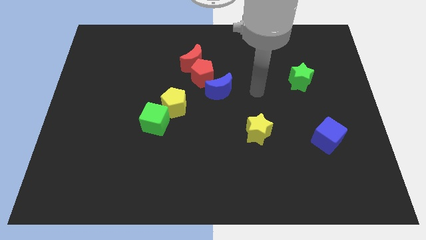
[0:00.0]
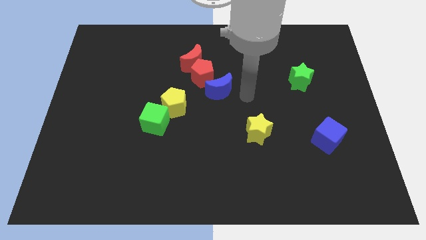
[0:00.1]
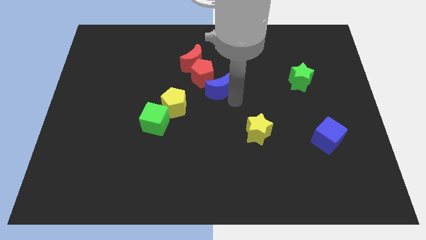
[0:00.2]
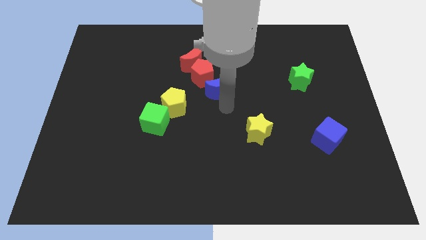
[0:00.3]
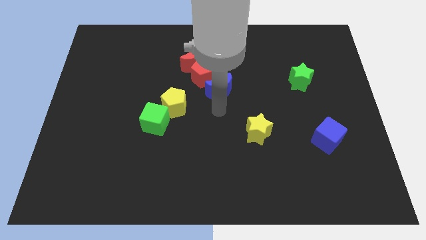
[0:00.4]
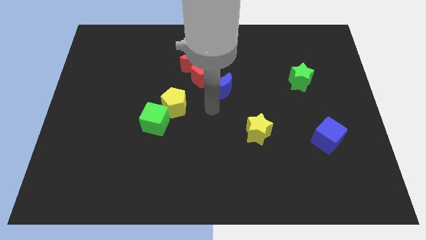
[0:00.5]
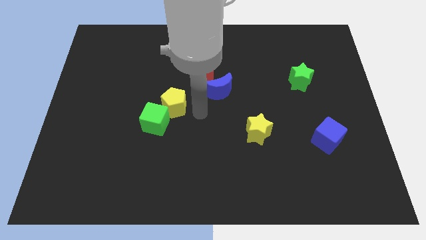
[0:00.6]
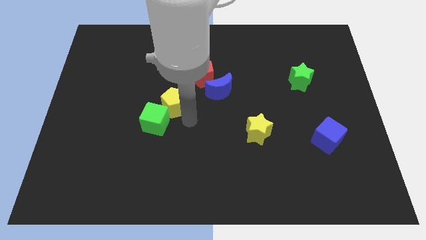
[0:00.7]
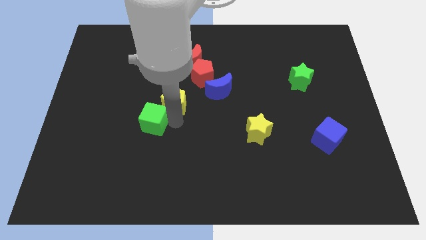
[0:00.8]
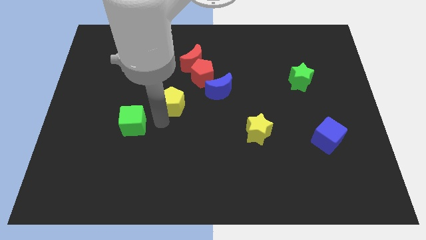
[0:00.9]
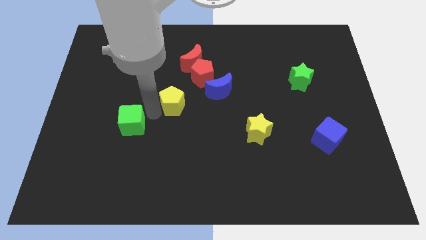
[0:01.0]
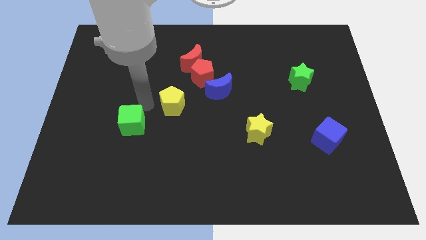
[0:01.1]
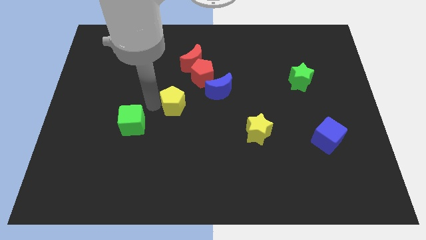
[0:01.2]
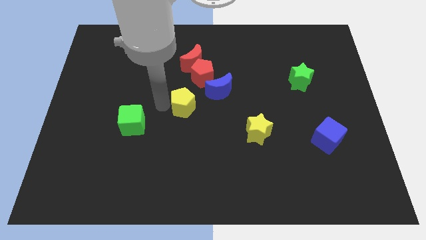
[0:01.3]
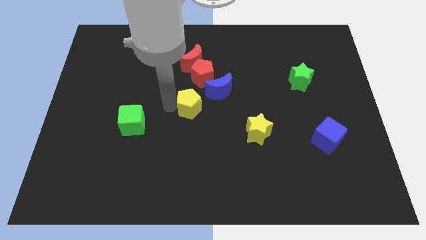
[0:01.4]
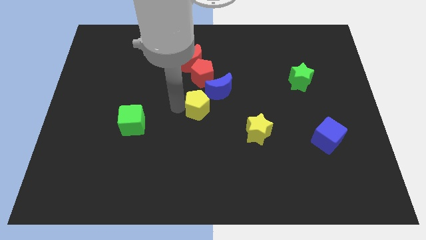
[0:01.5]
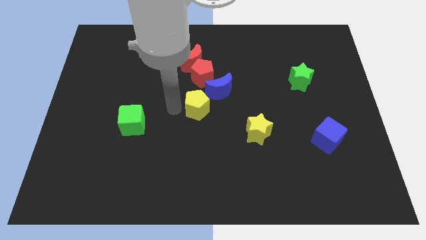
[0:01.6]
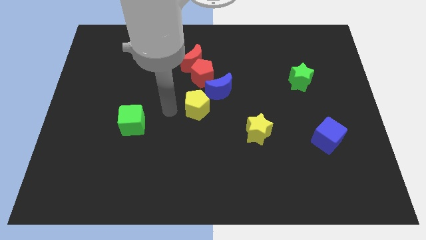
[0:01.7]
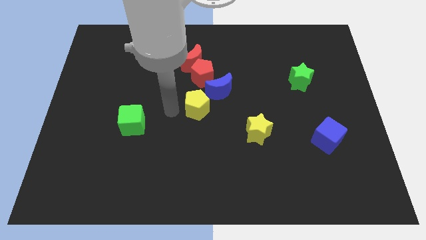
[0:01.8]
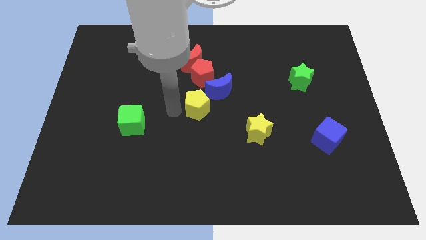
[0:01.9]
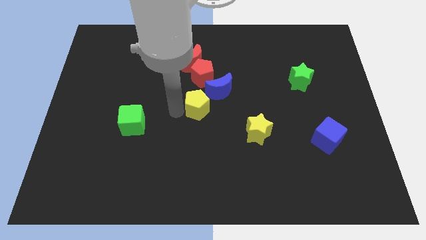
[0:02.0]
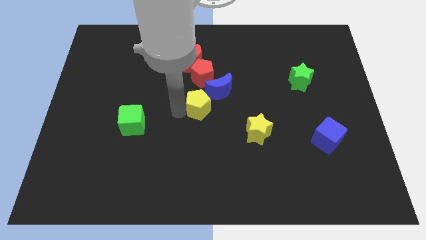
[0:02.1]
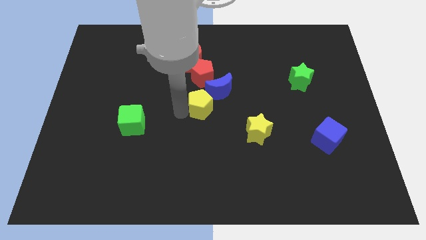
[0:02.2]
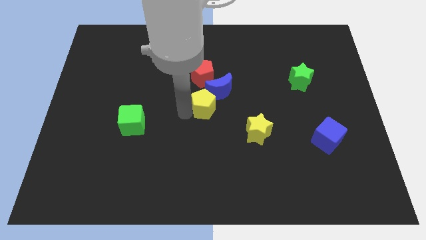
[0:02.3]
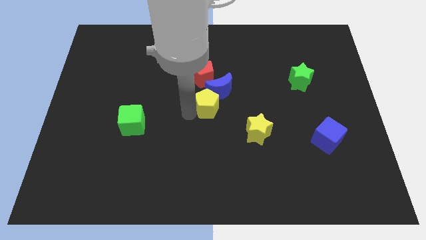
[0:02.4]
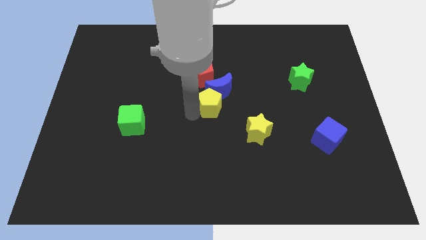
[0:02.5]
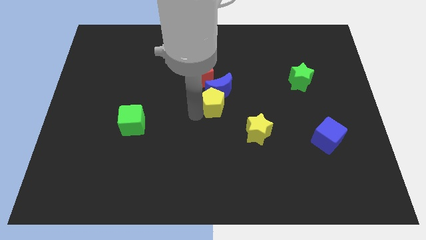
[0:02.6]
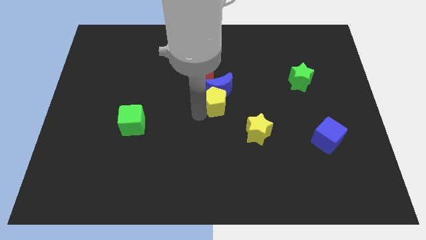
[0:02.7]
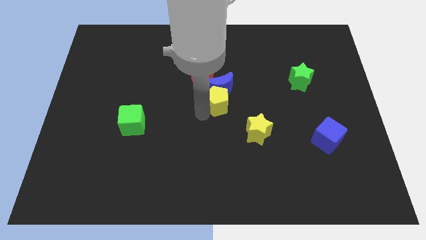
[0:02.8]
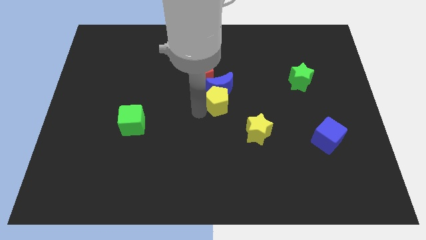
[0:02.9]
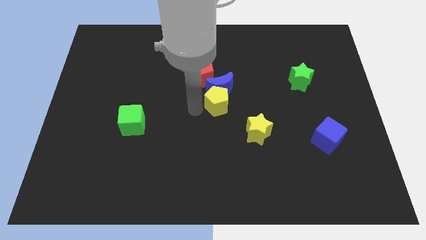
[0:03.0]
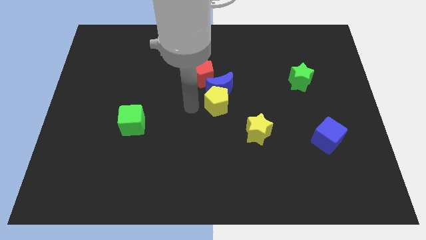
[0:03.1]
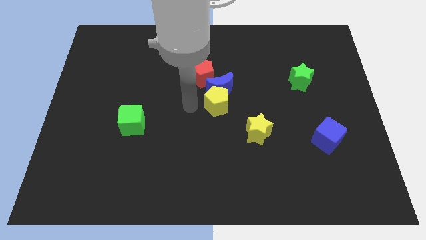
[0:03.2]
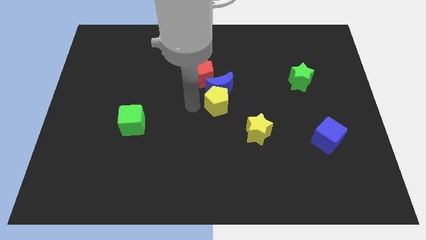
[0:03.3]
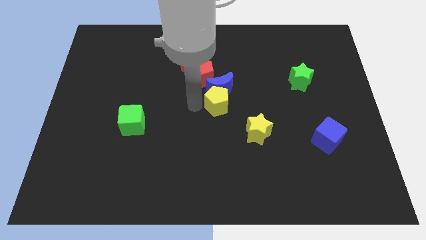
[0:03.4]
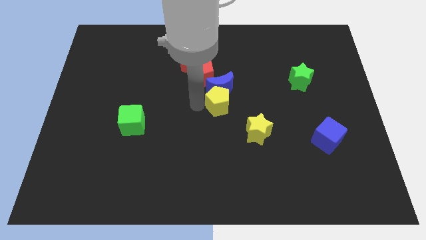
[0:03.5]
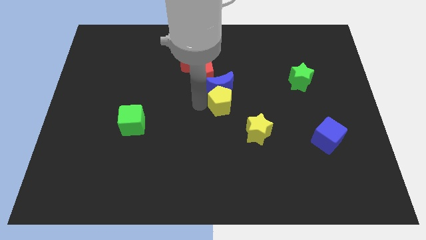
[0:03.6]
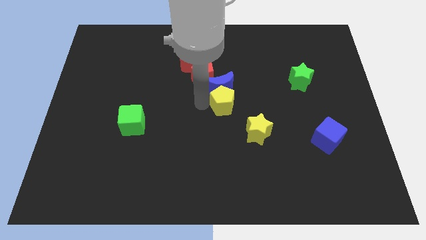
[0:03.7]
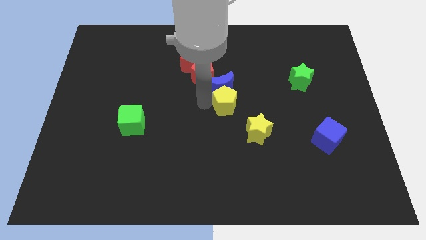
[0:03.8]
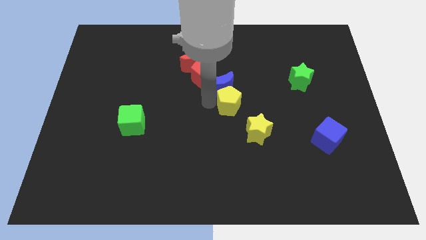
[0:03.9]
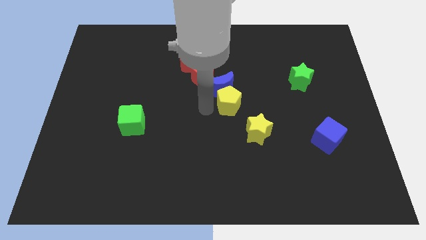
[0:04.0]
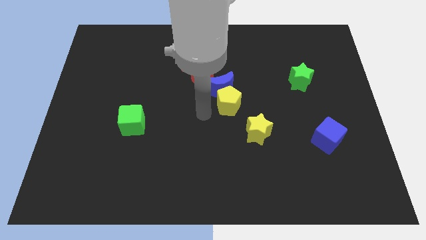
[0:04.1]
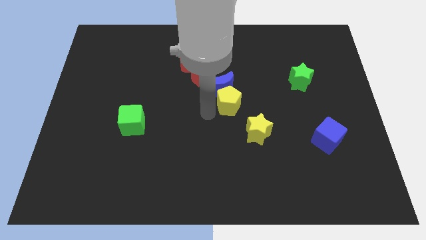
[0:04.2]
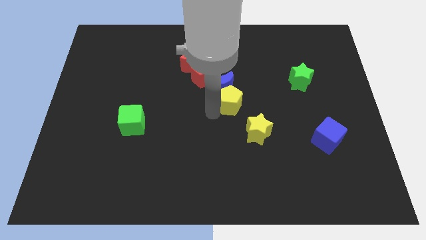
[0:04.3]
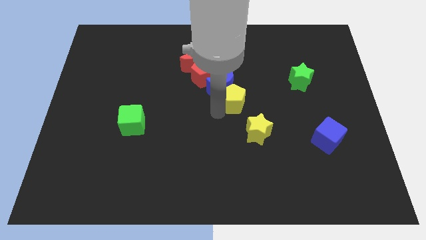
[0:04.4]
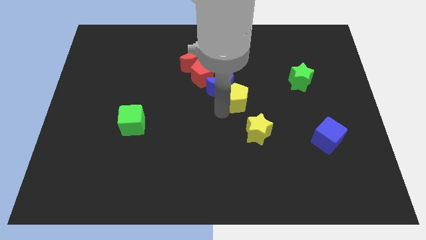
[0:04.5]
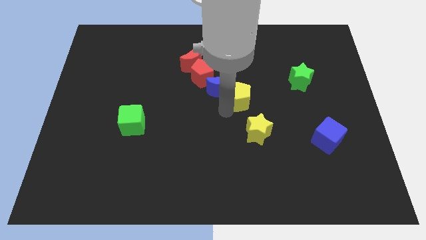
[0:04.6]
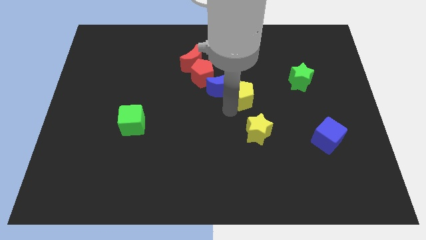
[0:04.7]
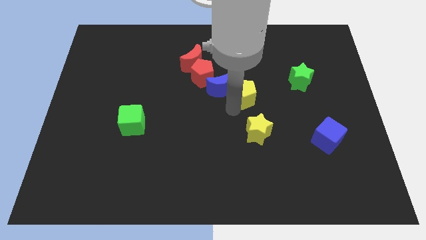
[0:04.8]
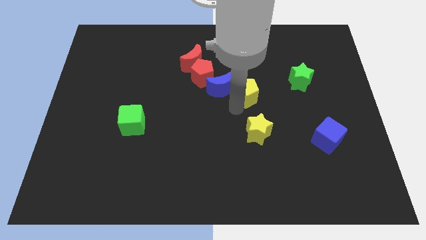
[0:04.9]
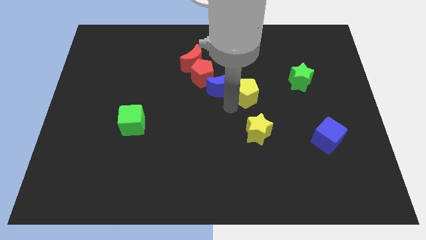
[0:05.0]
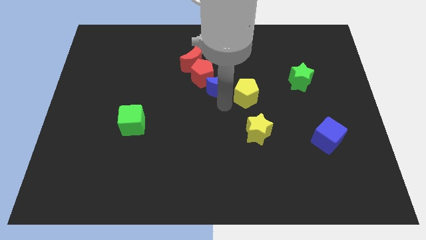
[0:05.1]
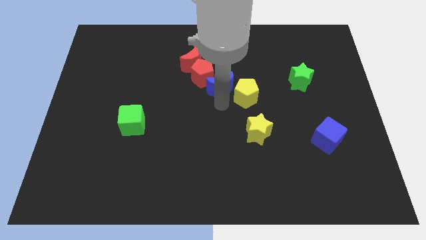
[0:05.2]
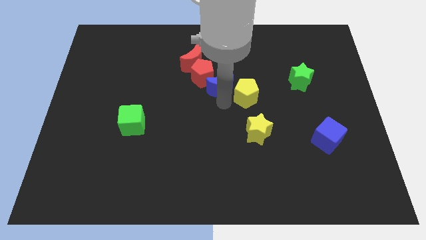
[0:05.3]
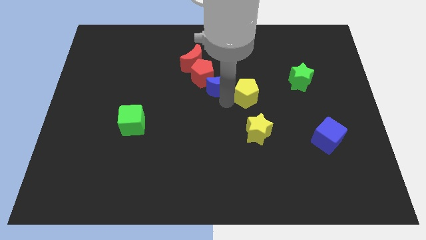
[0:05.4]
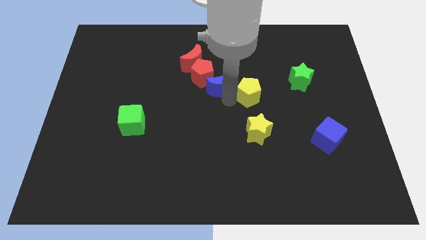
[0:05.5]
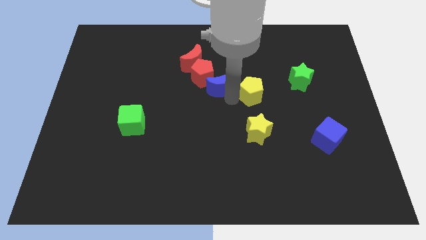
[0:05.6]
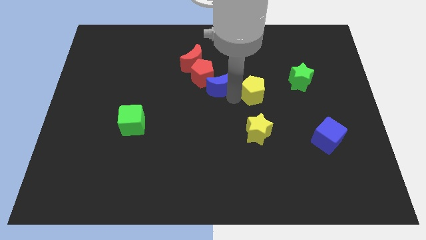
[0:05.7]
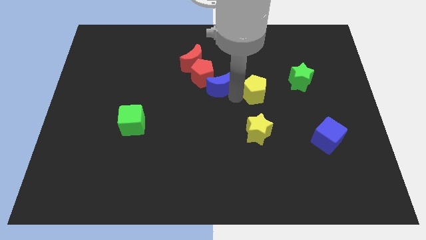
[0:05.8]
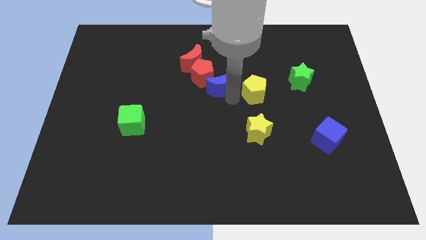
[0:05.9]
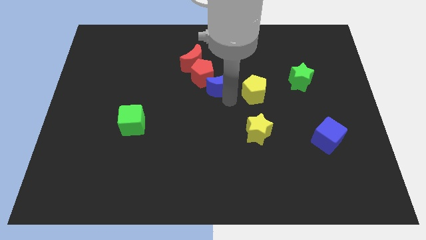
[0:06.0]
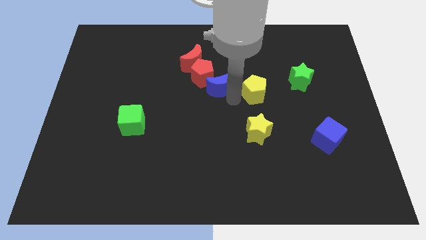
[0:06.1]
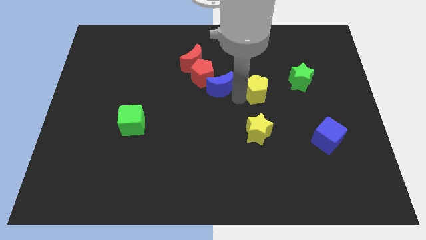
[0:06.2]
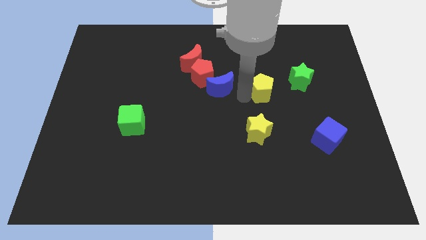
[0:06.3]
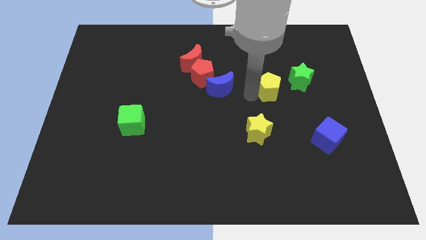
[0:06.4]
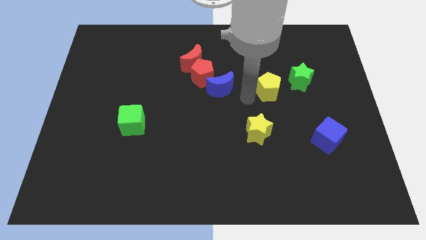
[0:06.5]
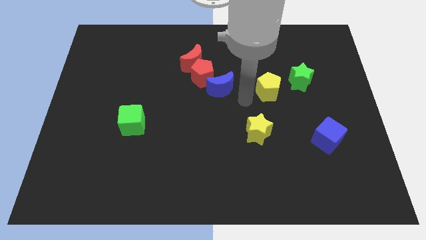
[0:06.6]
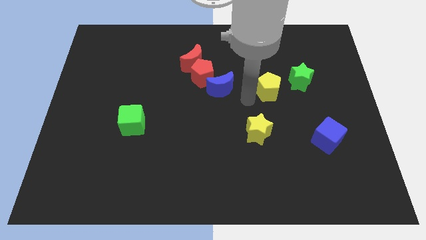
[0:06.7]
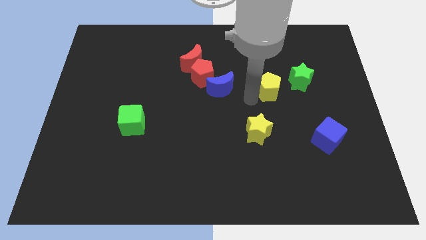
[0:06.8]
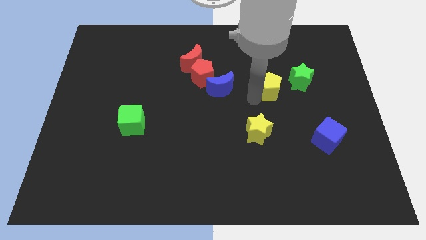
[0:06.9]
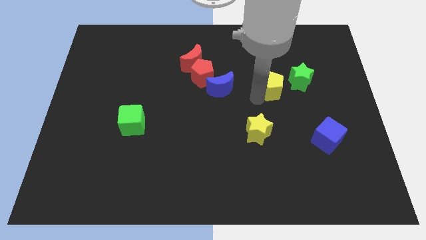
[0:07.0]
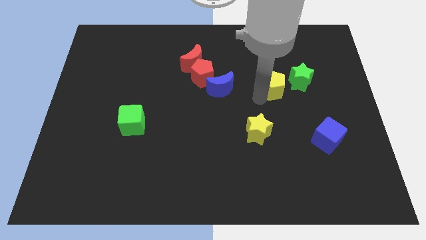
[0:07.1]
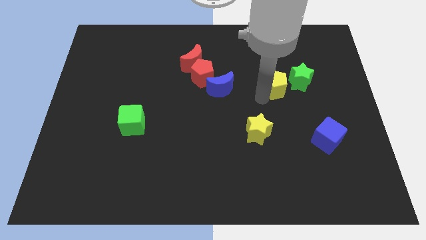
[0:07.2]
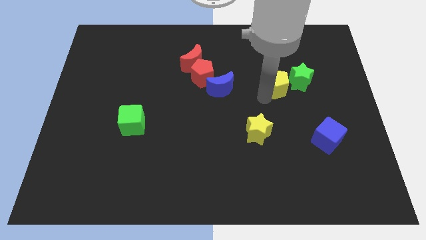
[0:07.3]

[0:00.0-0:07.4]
move the yellow pentagon next to the green star

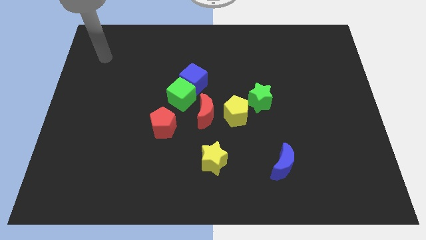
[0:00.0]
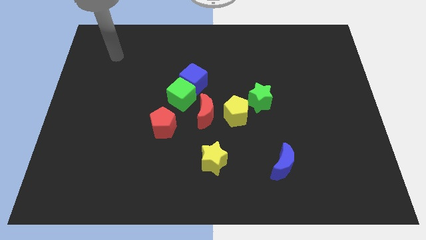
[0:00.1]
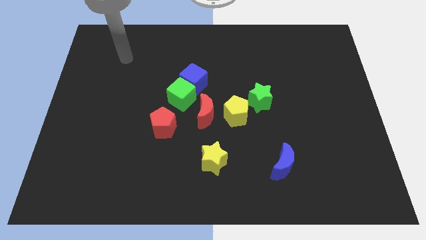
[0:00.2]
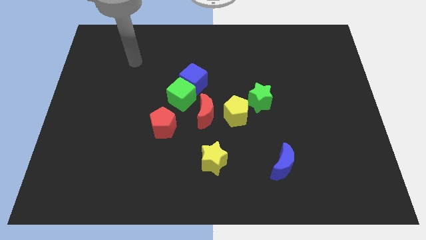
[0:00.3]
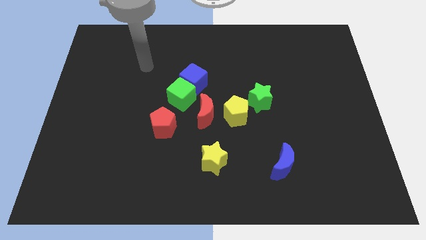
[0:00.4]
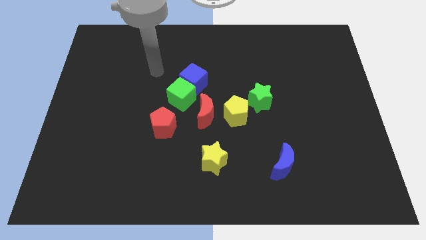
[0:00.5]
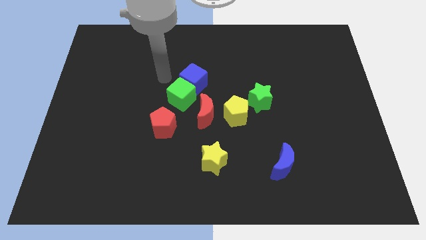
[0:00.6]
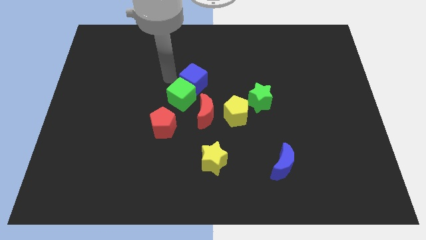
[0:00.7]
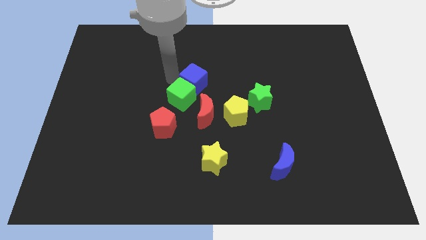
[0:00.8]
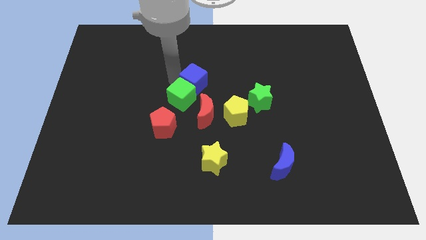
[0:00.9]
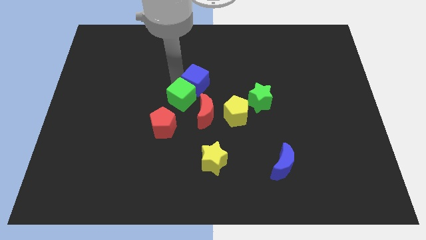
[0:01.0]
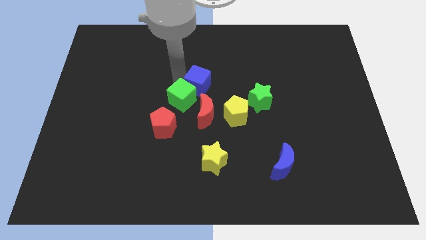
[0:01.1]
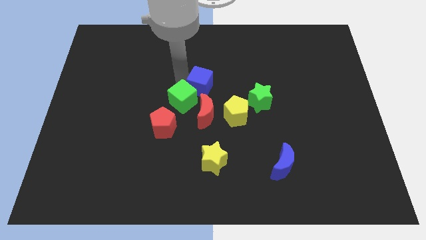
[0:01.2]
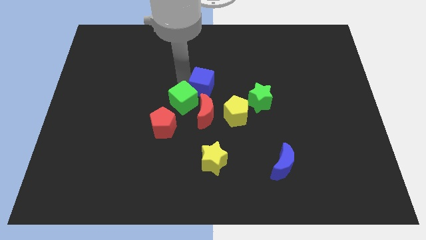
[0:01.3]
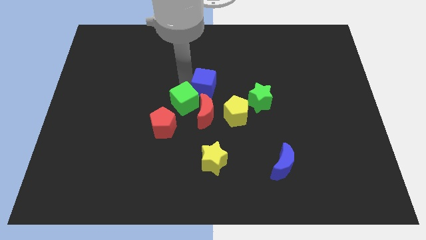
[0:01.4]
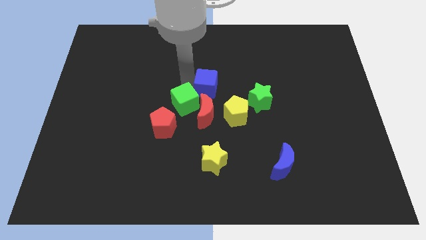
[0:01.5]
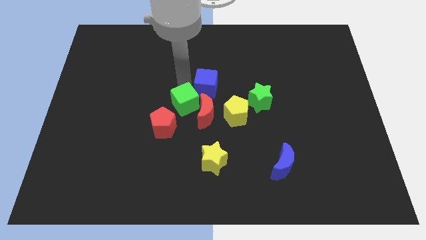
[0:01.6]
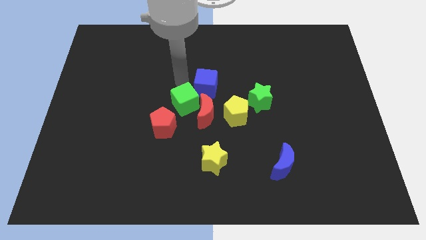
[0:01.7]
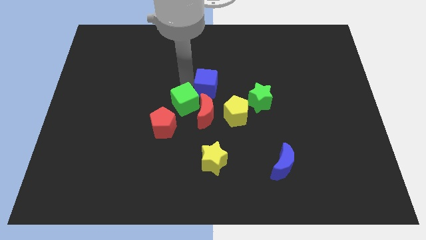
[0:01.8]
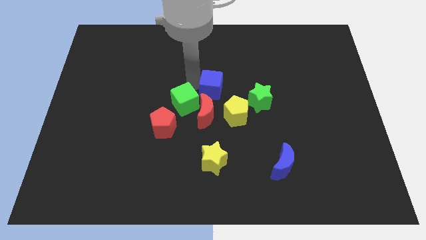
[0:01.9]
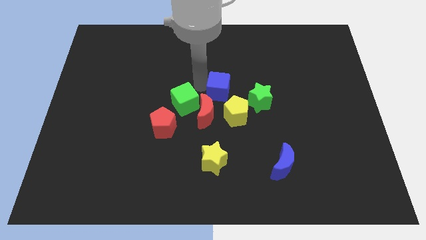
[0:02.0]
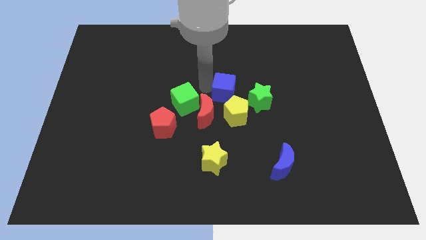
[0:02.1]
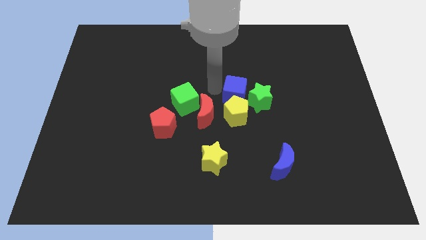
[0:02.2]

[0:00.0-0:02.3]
move the blue cube towards the green star
